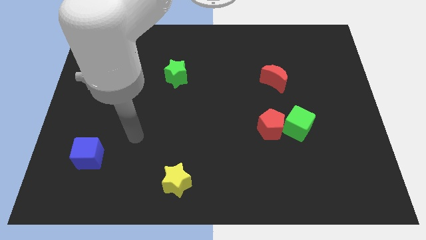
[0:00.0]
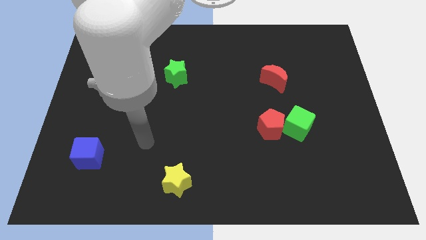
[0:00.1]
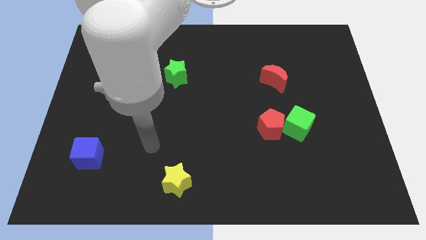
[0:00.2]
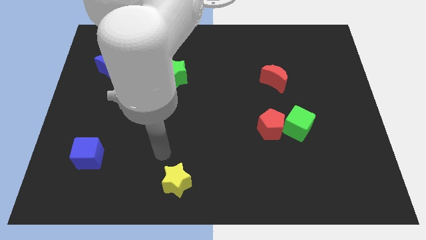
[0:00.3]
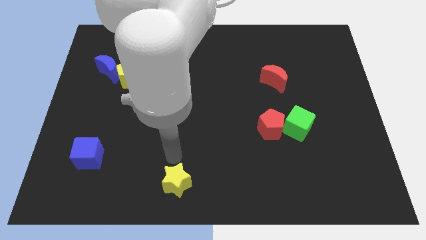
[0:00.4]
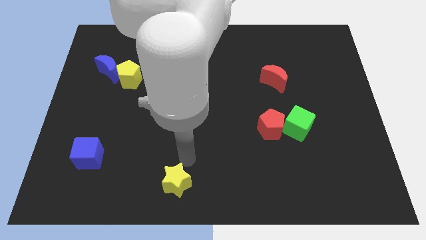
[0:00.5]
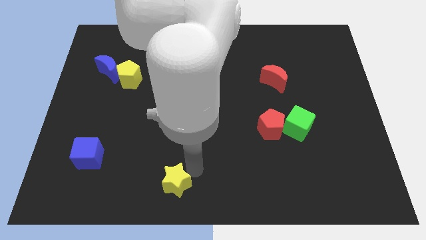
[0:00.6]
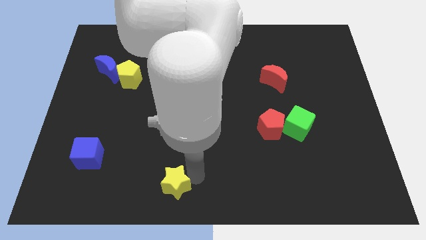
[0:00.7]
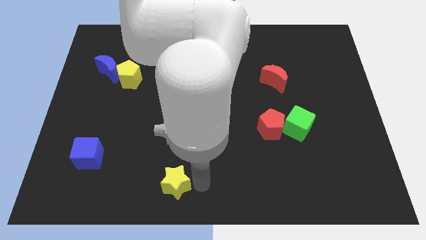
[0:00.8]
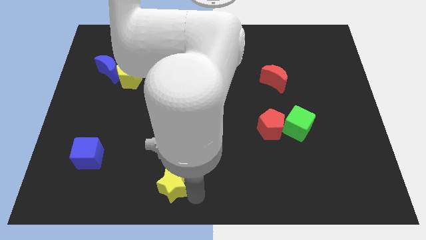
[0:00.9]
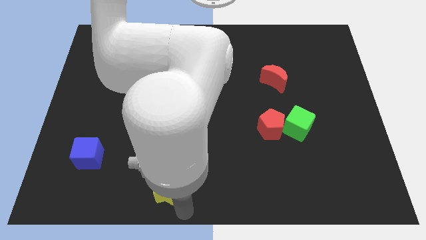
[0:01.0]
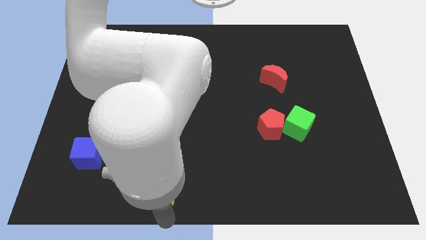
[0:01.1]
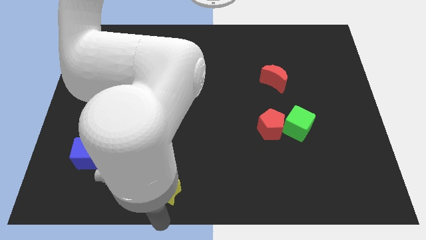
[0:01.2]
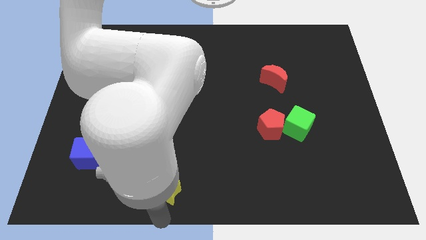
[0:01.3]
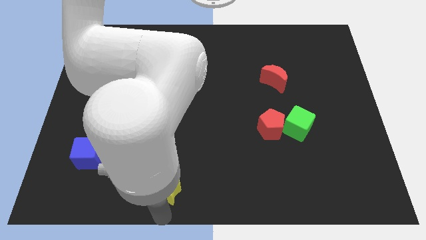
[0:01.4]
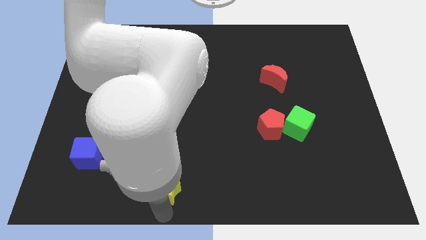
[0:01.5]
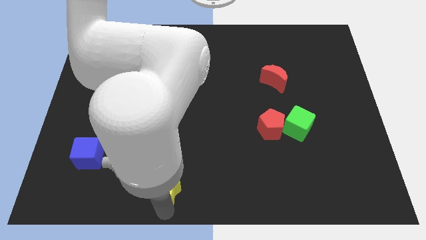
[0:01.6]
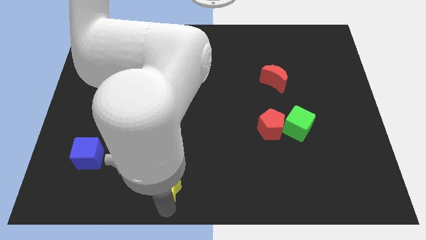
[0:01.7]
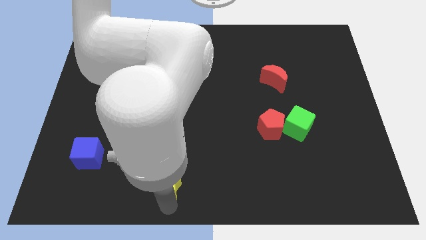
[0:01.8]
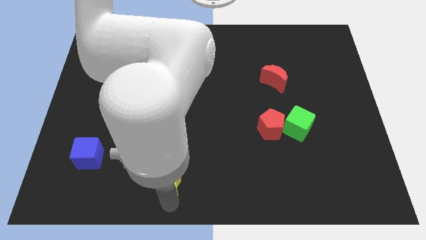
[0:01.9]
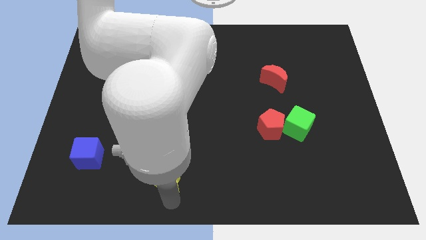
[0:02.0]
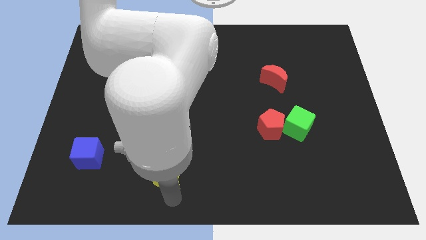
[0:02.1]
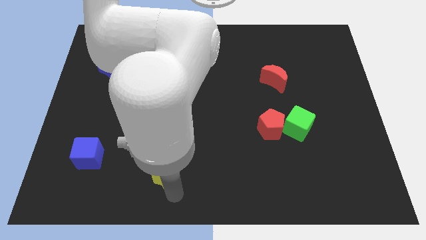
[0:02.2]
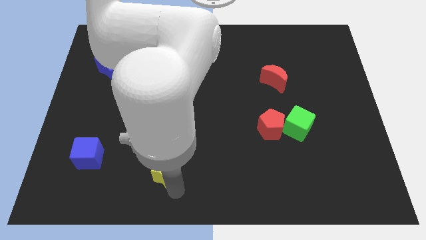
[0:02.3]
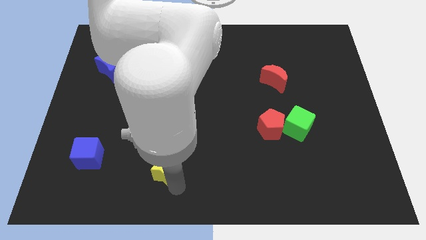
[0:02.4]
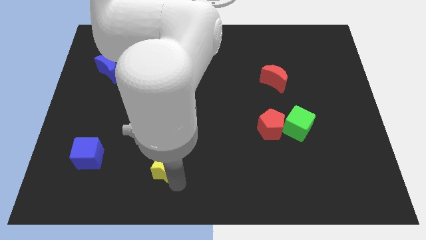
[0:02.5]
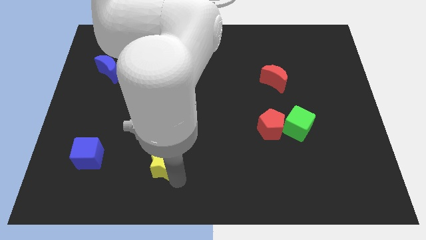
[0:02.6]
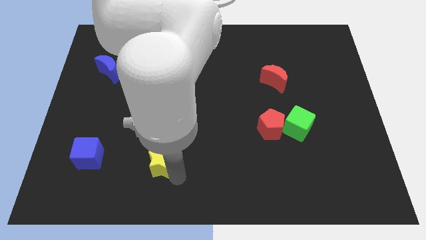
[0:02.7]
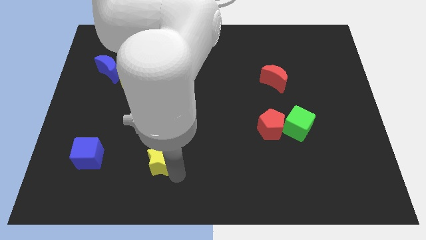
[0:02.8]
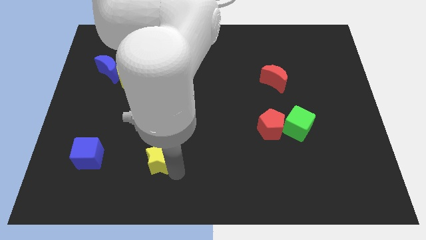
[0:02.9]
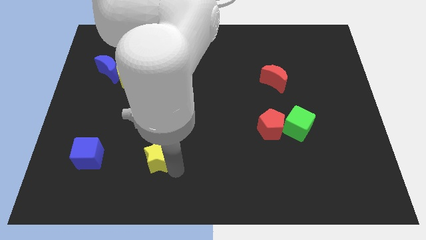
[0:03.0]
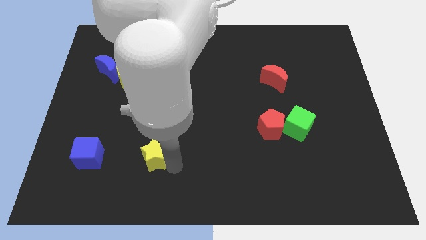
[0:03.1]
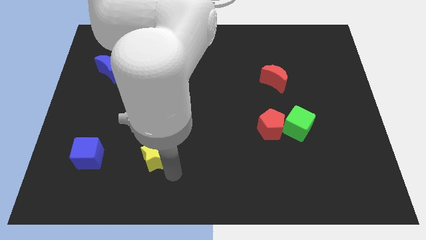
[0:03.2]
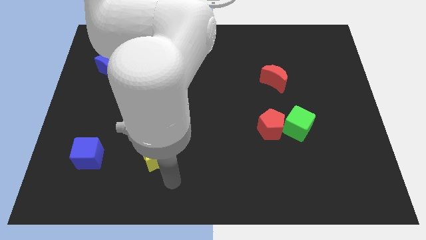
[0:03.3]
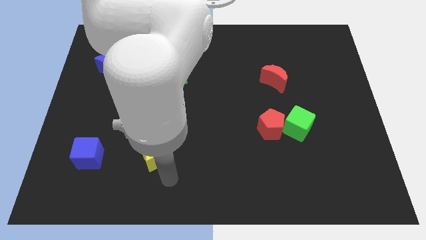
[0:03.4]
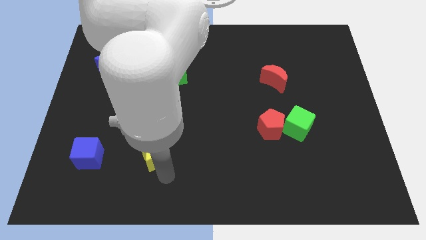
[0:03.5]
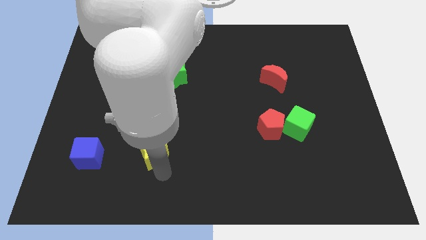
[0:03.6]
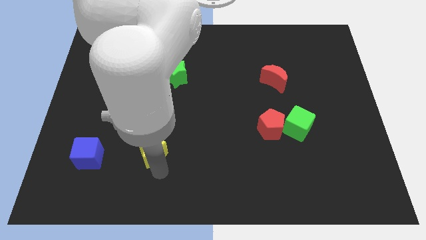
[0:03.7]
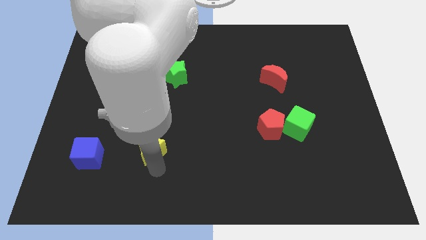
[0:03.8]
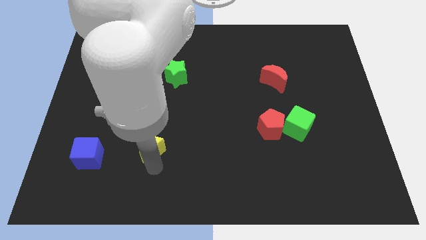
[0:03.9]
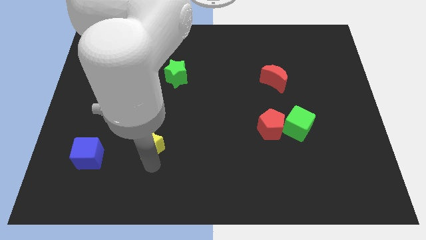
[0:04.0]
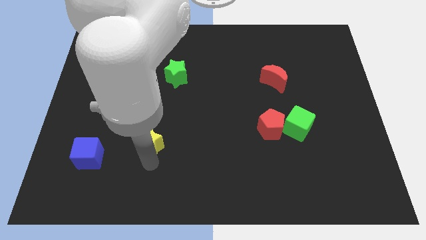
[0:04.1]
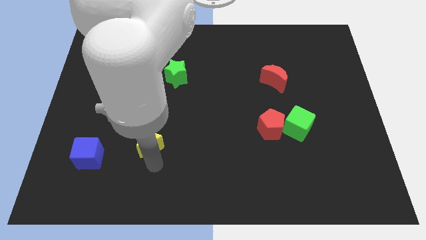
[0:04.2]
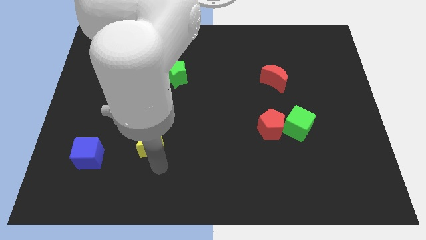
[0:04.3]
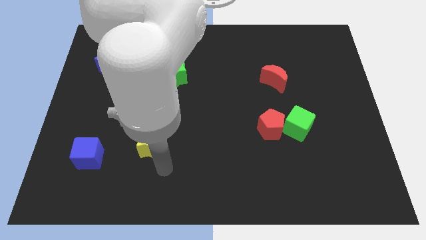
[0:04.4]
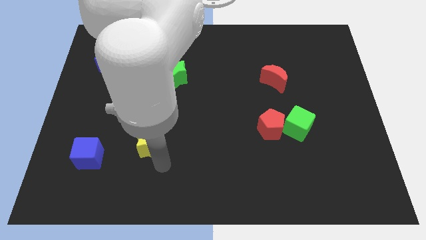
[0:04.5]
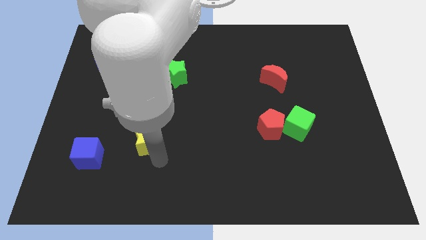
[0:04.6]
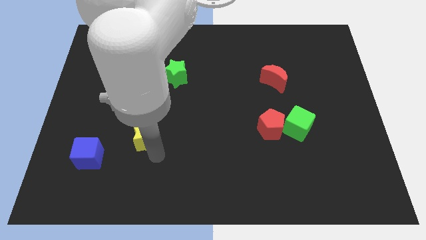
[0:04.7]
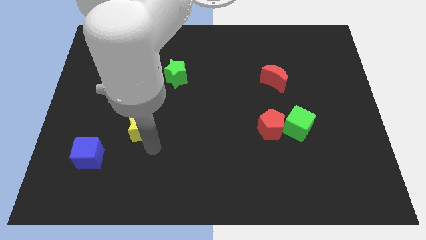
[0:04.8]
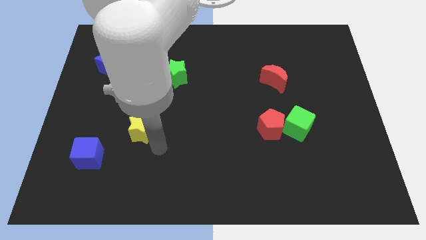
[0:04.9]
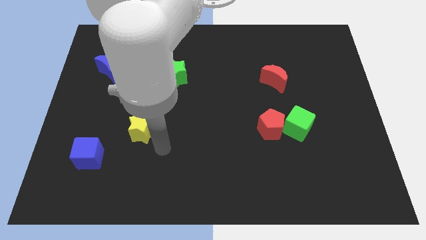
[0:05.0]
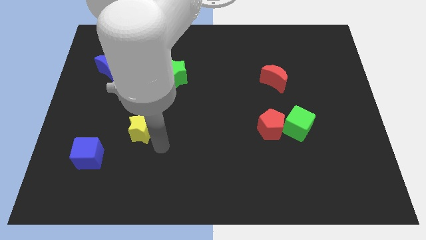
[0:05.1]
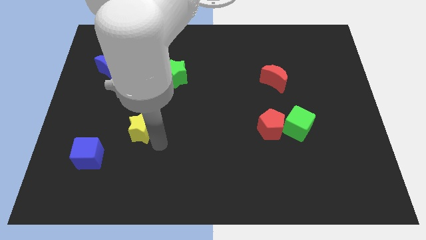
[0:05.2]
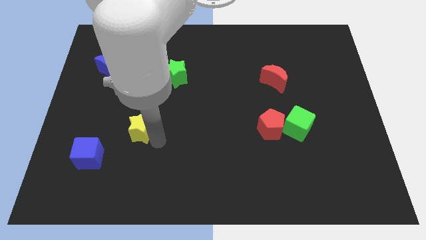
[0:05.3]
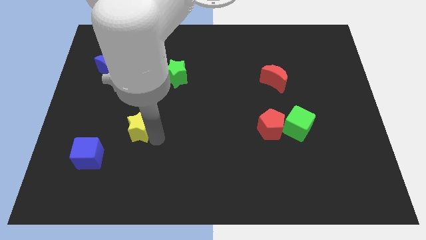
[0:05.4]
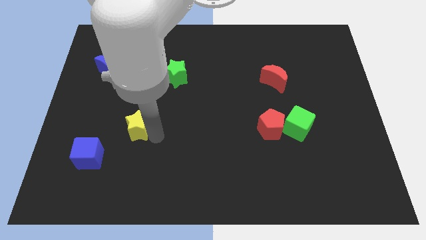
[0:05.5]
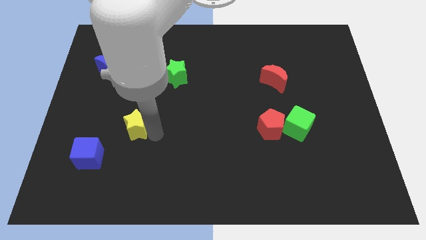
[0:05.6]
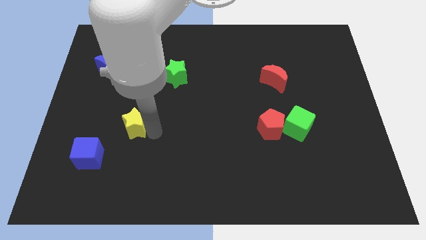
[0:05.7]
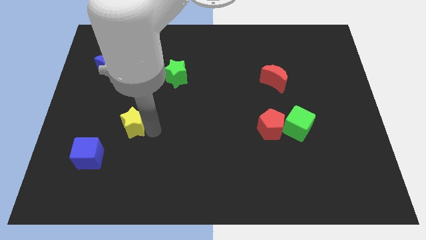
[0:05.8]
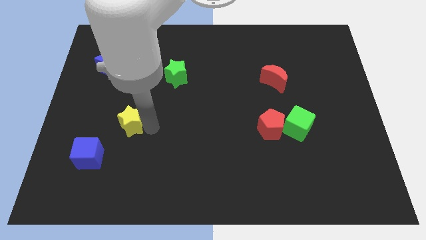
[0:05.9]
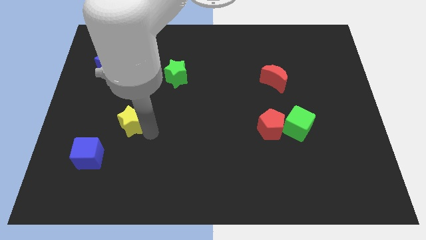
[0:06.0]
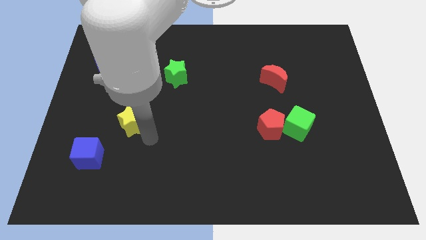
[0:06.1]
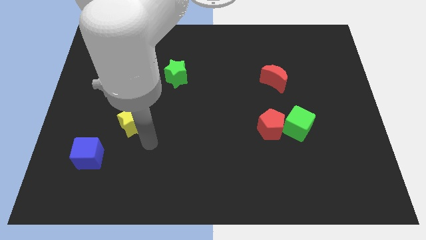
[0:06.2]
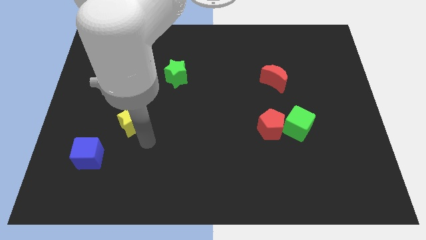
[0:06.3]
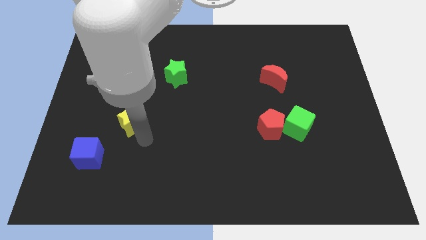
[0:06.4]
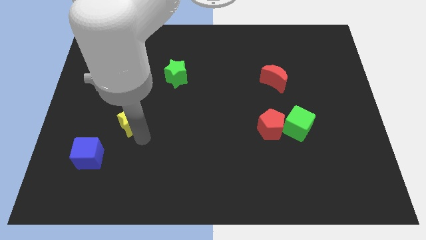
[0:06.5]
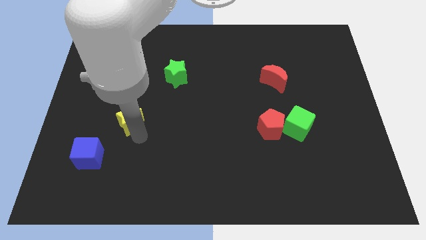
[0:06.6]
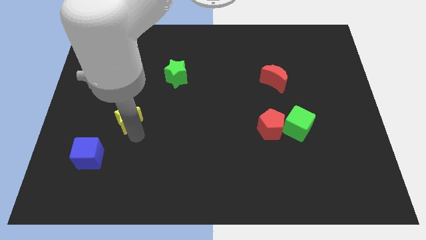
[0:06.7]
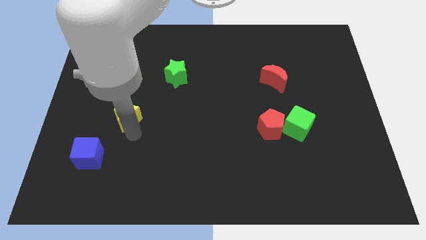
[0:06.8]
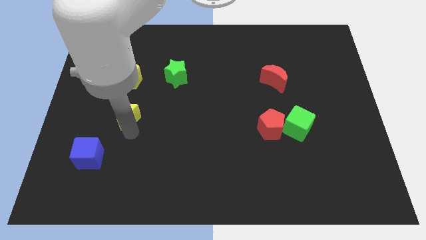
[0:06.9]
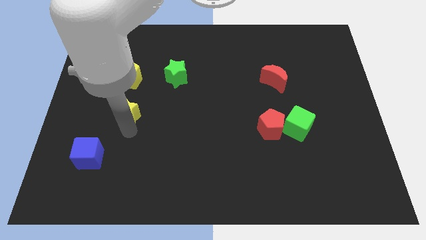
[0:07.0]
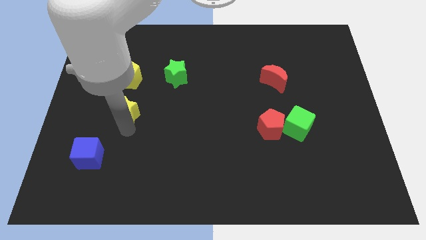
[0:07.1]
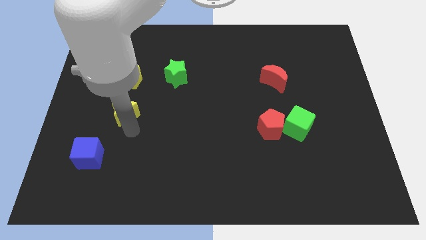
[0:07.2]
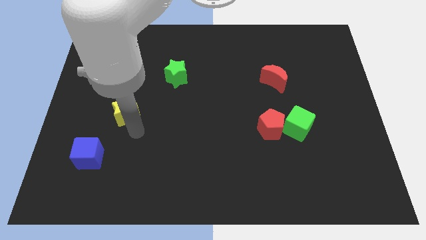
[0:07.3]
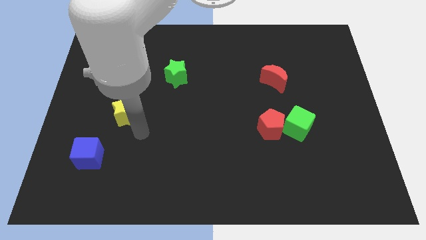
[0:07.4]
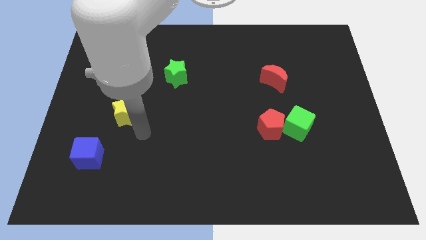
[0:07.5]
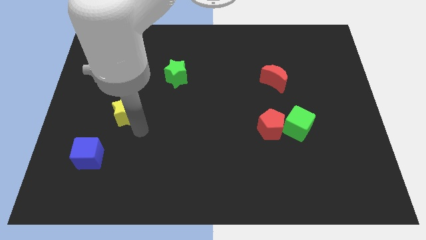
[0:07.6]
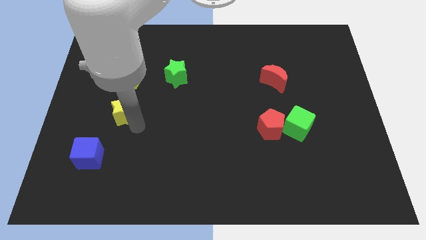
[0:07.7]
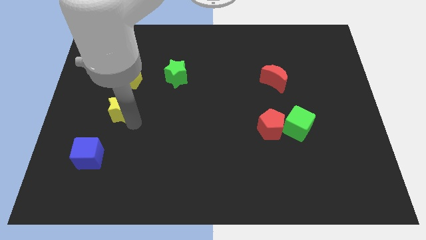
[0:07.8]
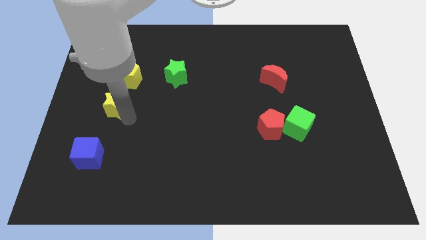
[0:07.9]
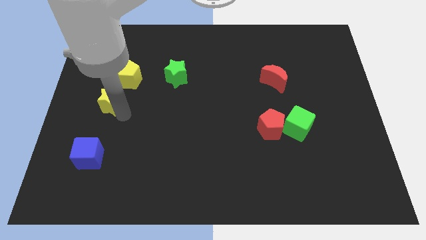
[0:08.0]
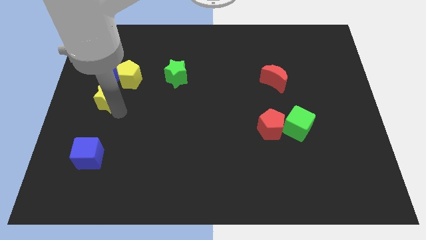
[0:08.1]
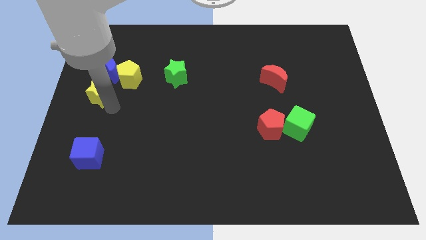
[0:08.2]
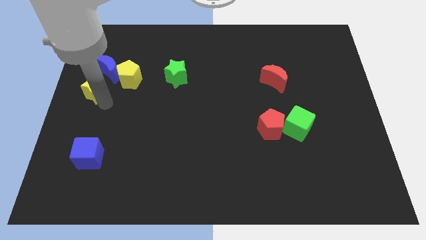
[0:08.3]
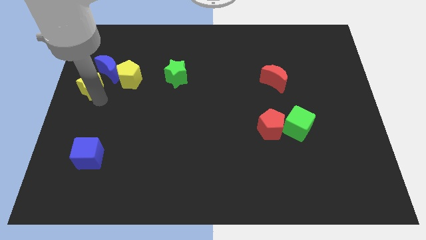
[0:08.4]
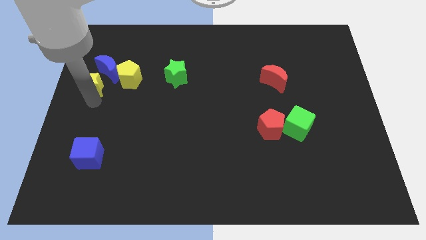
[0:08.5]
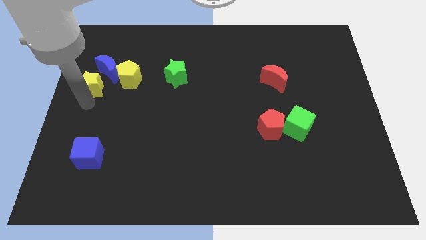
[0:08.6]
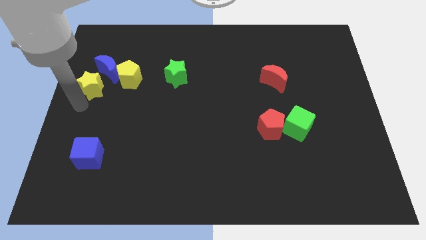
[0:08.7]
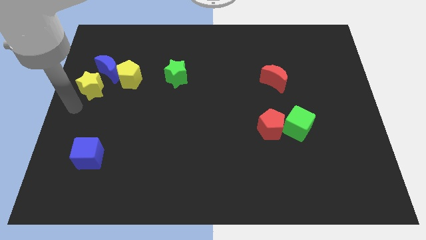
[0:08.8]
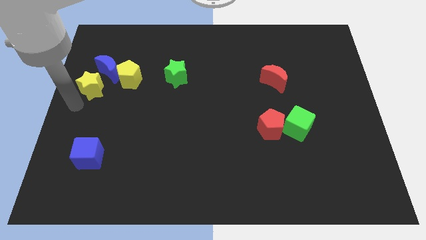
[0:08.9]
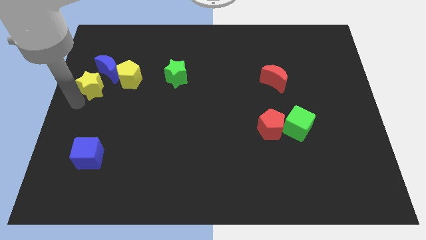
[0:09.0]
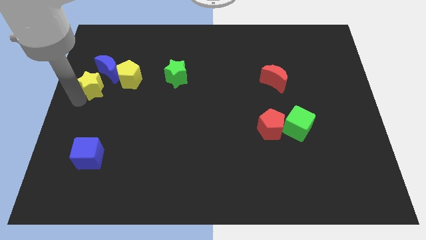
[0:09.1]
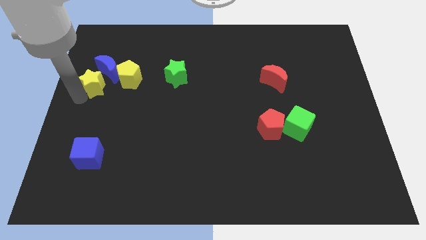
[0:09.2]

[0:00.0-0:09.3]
move the yellow star towards the blue moon
